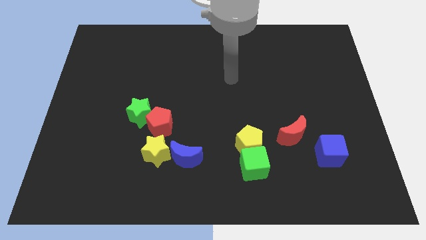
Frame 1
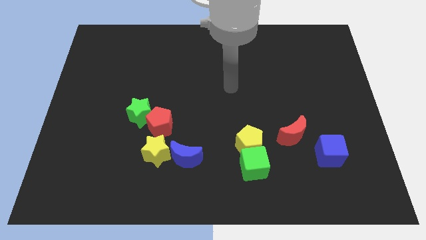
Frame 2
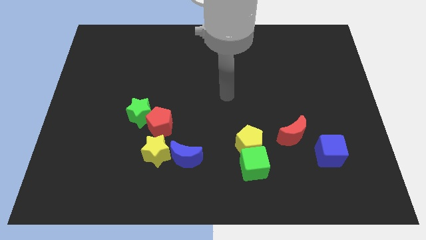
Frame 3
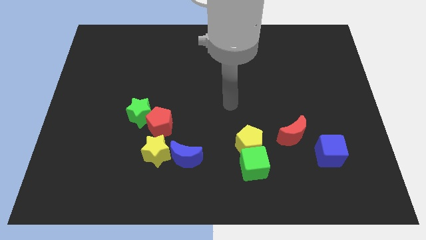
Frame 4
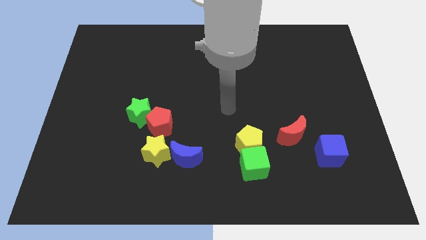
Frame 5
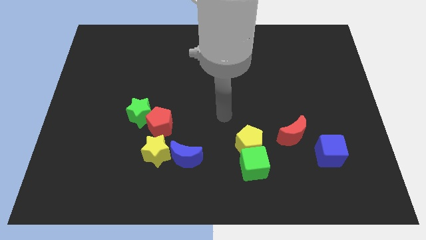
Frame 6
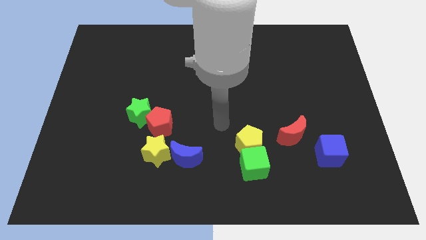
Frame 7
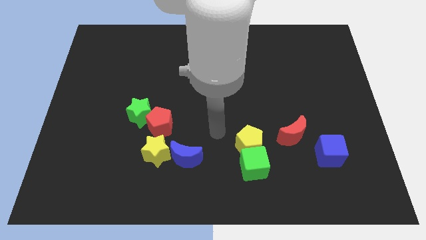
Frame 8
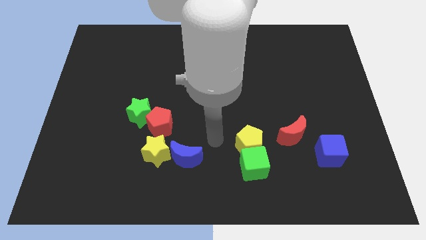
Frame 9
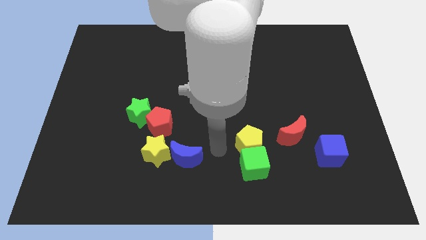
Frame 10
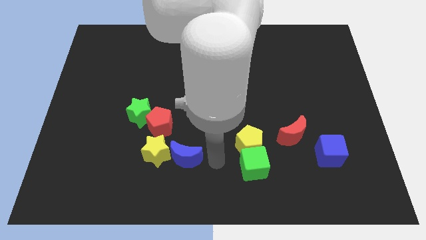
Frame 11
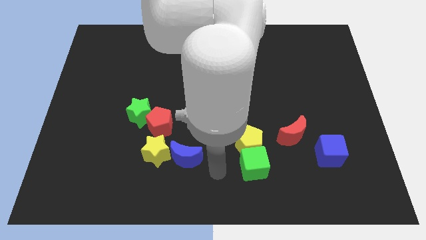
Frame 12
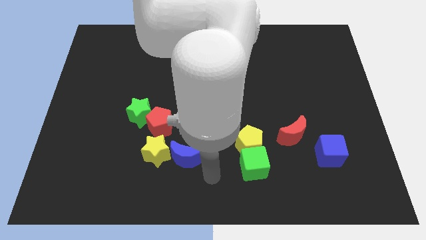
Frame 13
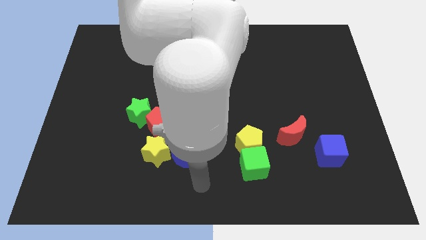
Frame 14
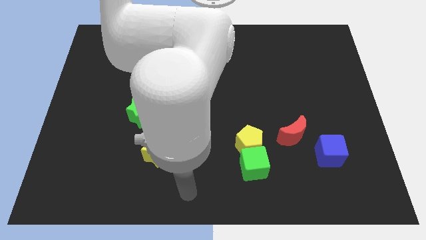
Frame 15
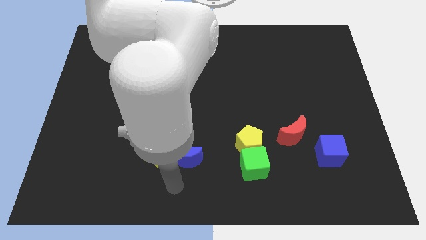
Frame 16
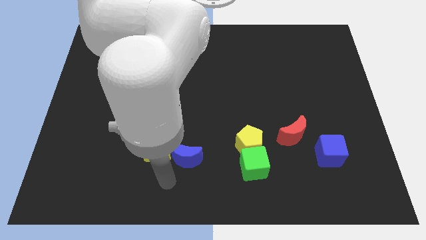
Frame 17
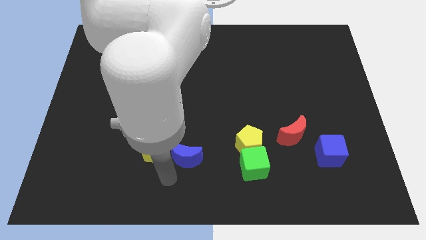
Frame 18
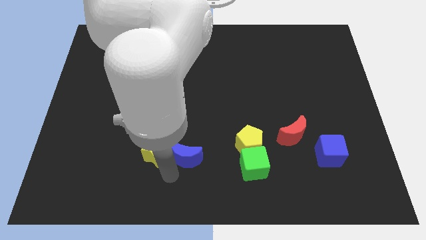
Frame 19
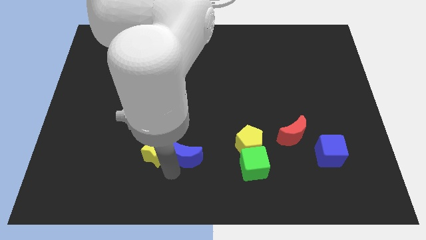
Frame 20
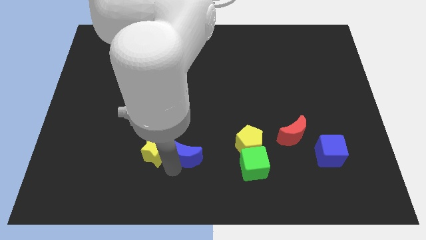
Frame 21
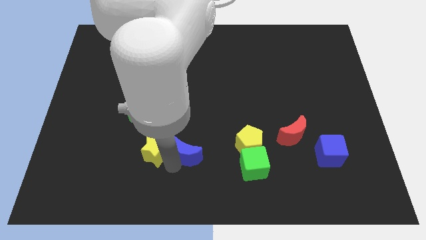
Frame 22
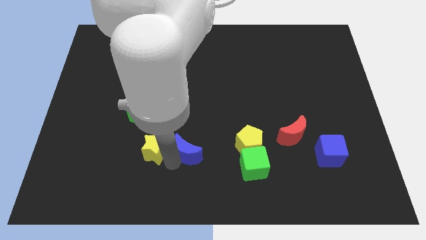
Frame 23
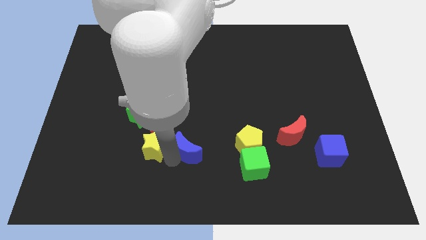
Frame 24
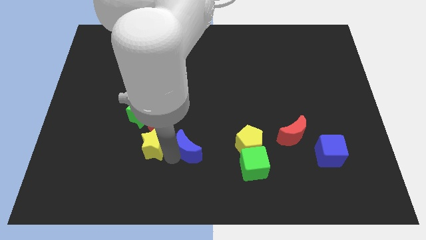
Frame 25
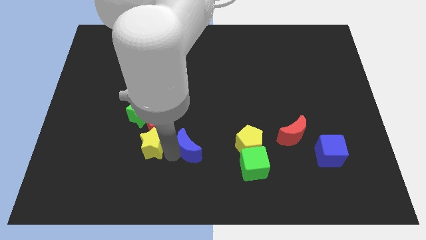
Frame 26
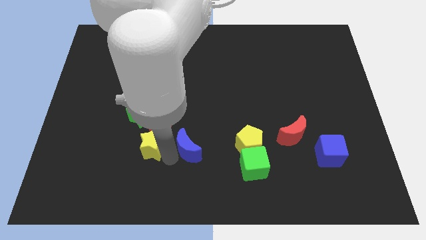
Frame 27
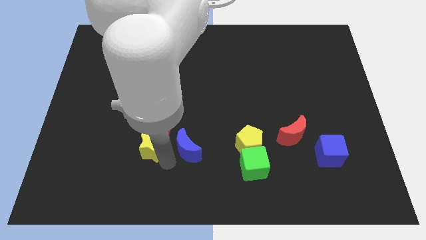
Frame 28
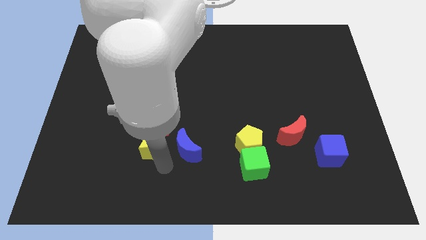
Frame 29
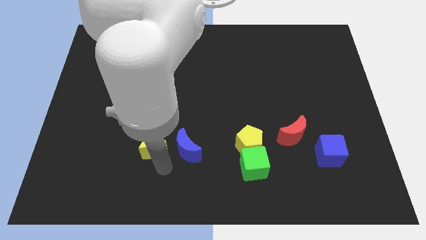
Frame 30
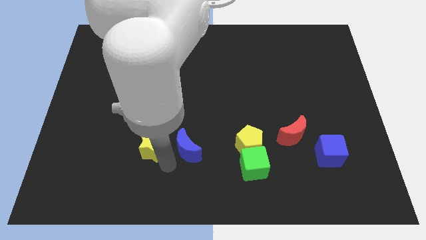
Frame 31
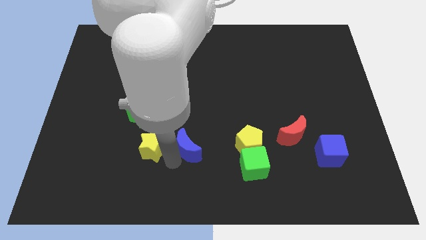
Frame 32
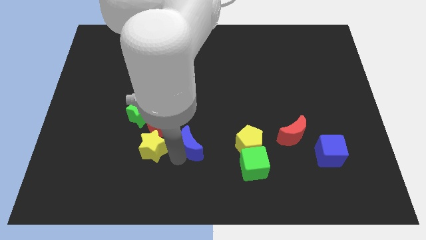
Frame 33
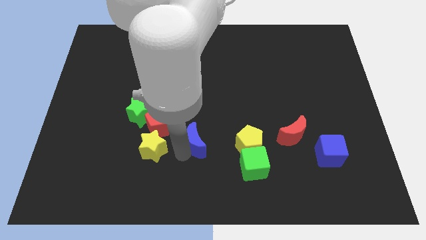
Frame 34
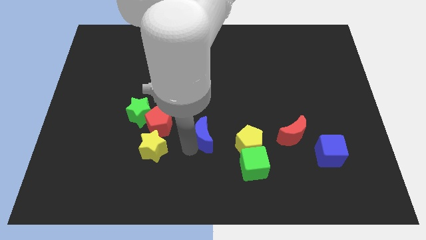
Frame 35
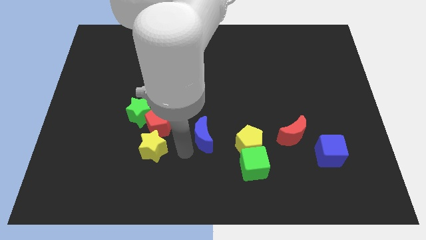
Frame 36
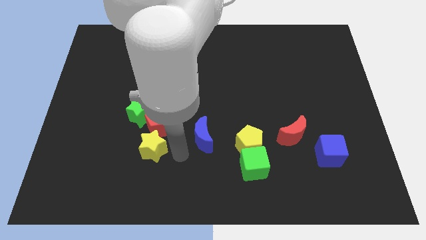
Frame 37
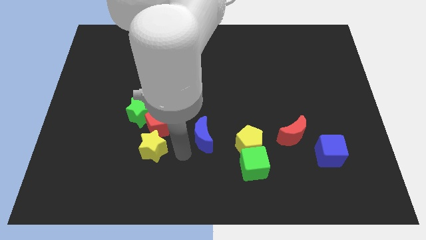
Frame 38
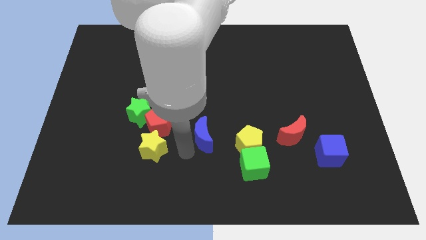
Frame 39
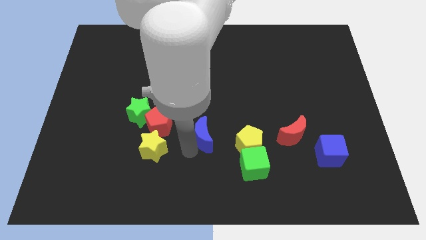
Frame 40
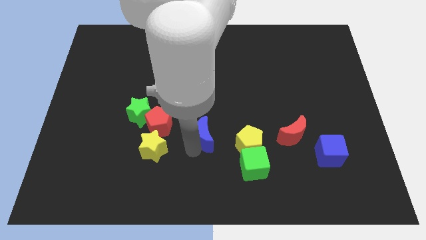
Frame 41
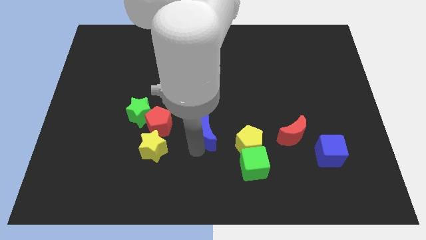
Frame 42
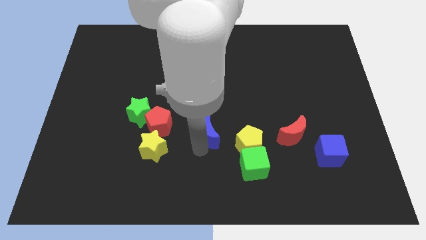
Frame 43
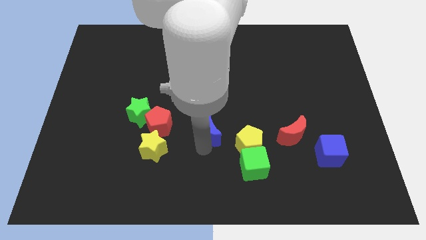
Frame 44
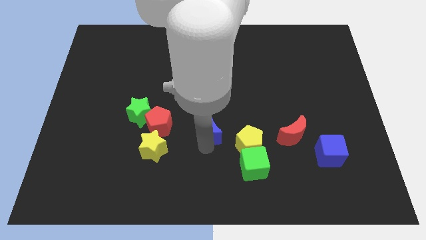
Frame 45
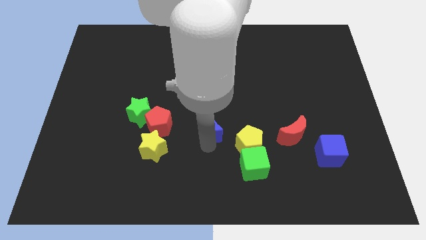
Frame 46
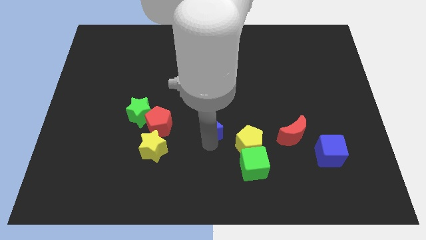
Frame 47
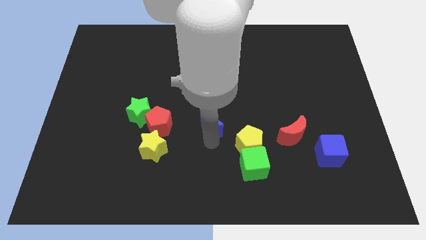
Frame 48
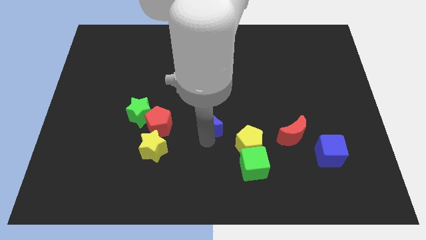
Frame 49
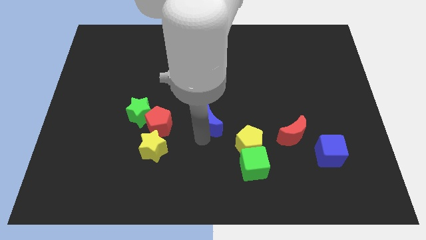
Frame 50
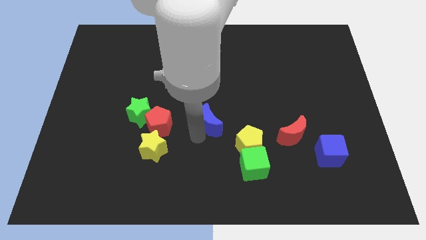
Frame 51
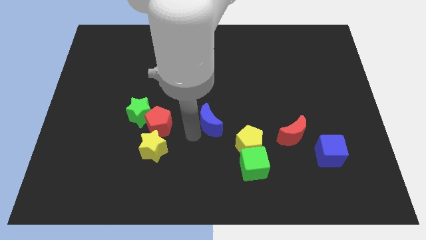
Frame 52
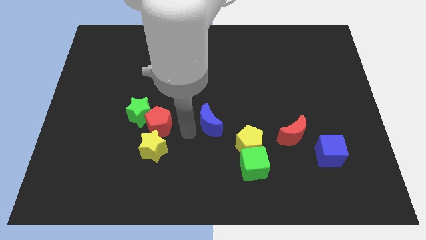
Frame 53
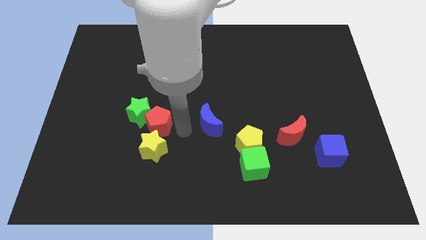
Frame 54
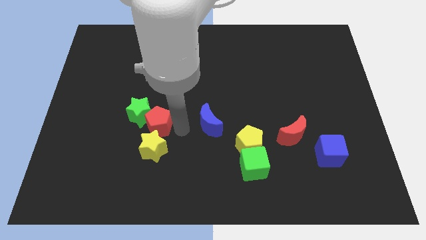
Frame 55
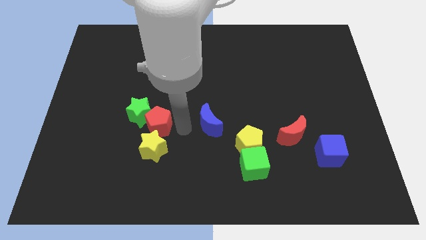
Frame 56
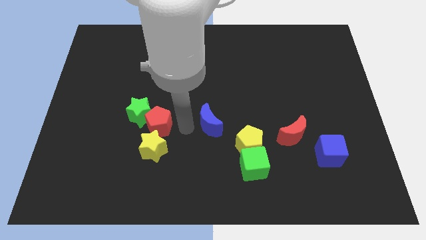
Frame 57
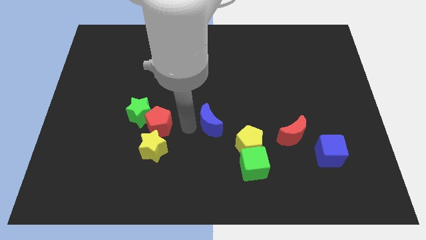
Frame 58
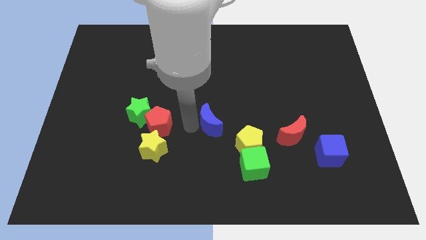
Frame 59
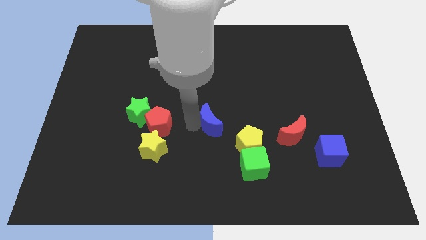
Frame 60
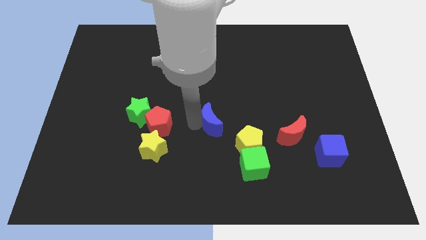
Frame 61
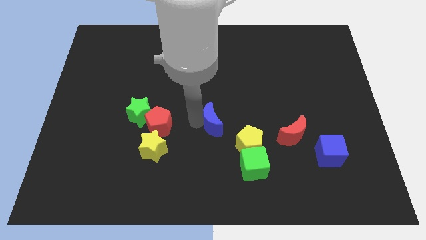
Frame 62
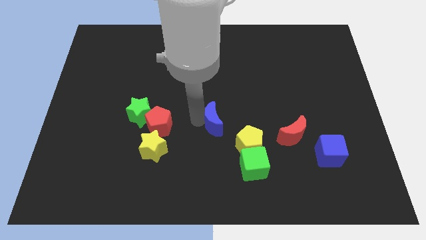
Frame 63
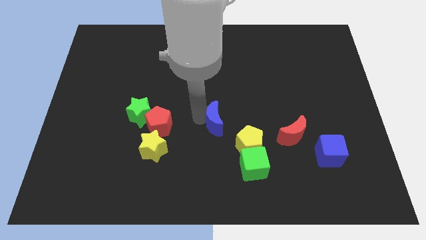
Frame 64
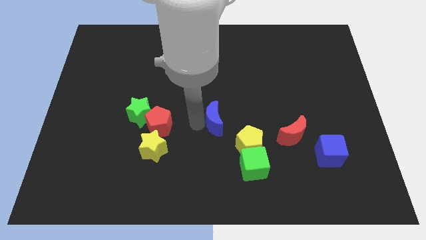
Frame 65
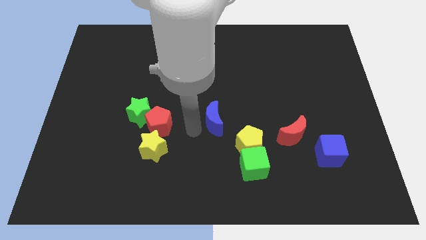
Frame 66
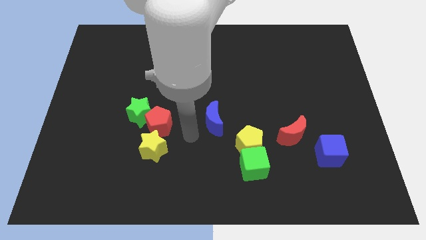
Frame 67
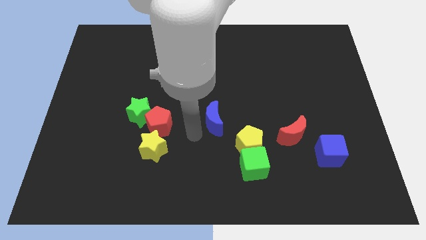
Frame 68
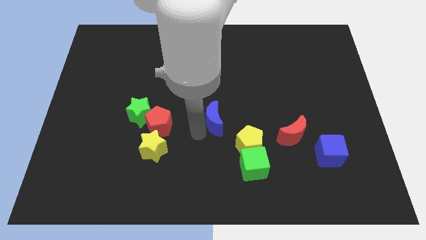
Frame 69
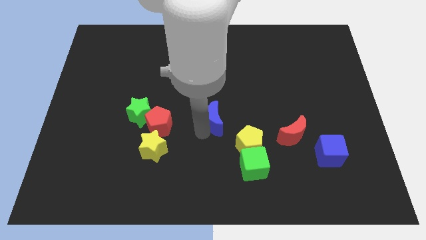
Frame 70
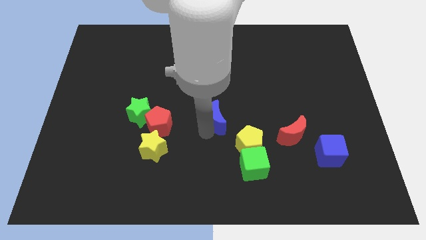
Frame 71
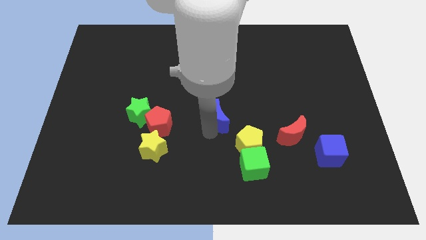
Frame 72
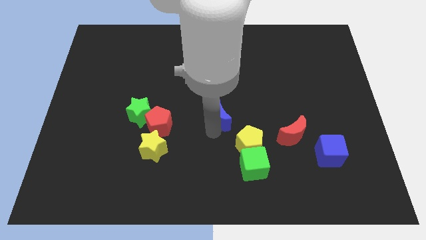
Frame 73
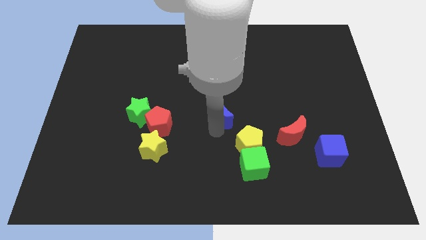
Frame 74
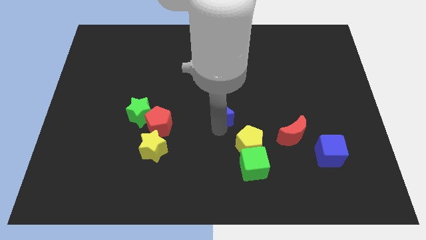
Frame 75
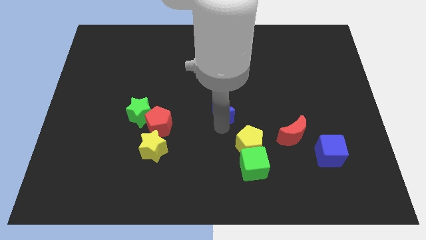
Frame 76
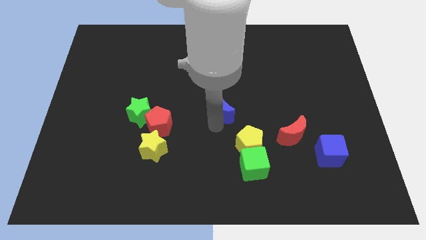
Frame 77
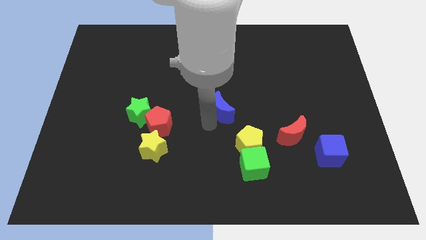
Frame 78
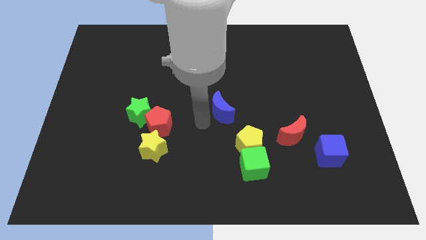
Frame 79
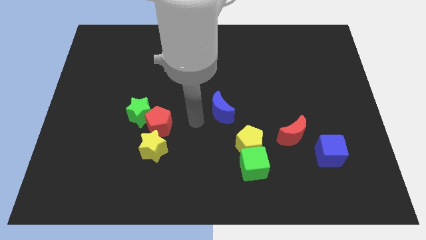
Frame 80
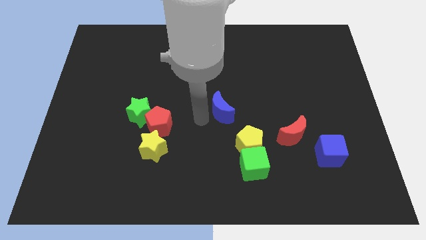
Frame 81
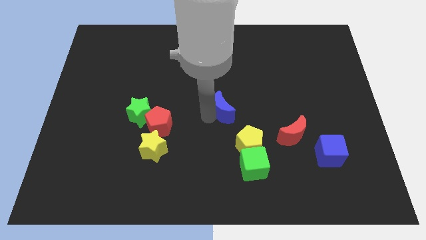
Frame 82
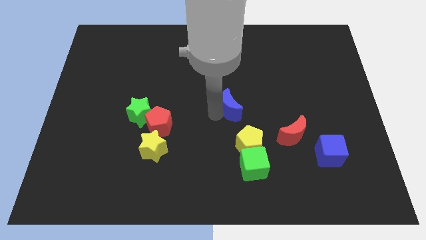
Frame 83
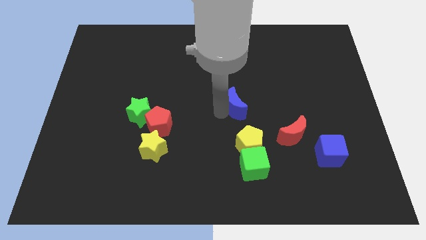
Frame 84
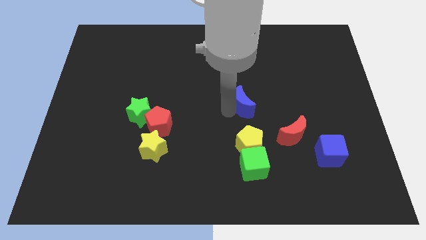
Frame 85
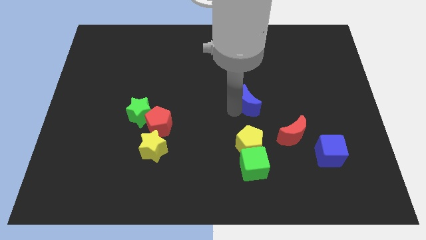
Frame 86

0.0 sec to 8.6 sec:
push the blue moon diagonally upwards and right
